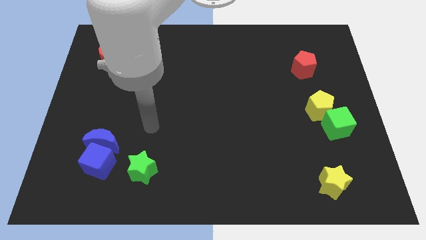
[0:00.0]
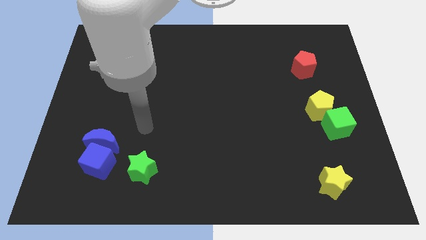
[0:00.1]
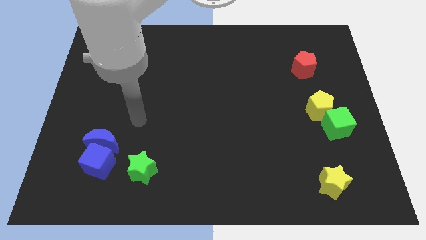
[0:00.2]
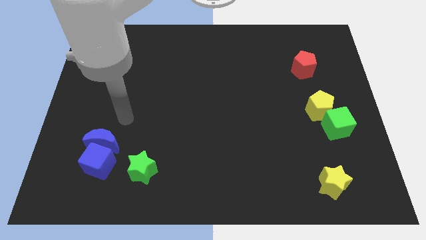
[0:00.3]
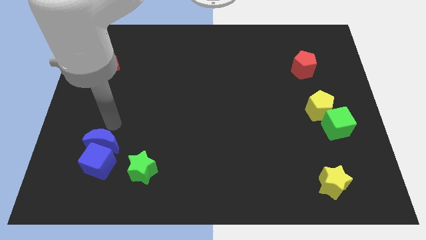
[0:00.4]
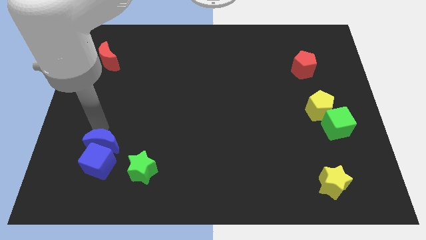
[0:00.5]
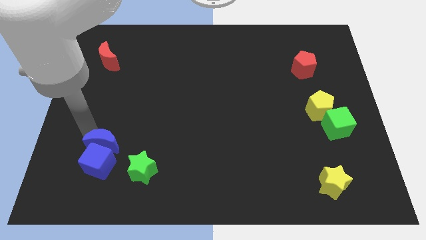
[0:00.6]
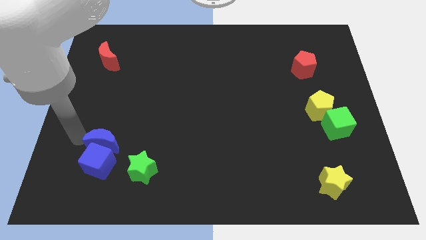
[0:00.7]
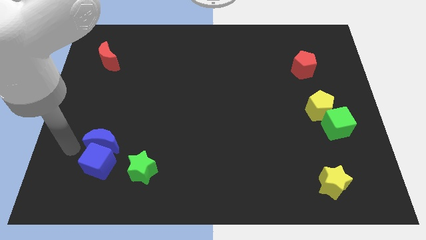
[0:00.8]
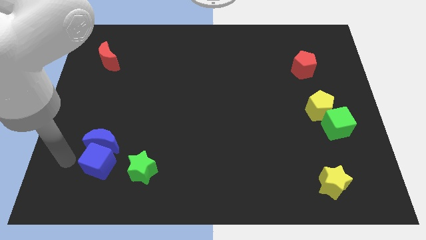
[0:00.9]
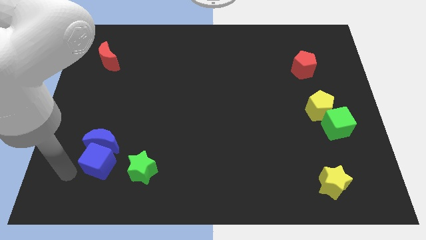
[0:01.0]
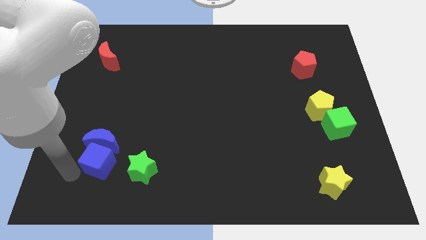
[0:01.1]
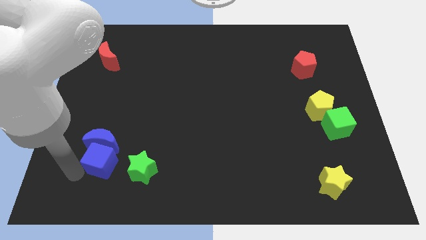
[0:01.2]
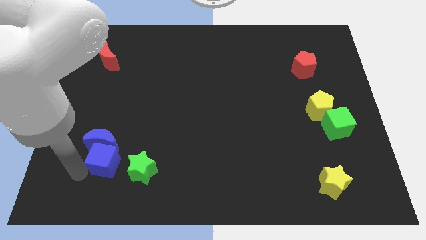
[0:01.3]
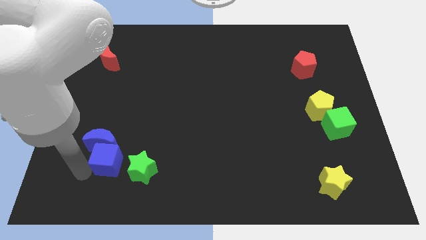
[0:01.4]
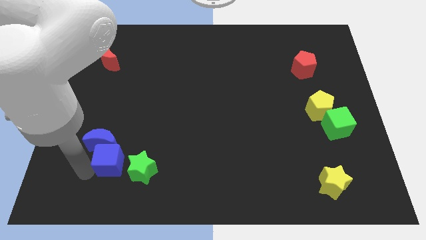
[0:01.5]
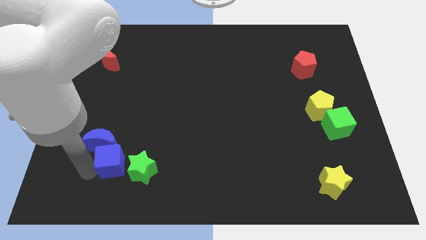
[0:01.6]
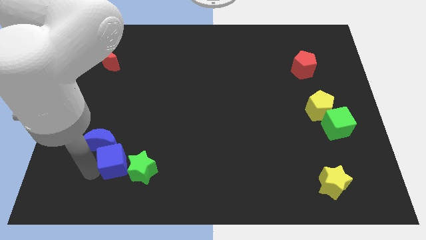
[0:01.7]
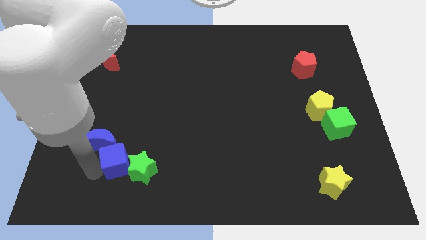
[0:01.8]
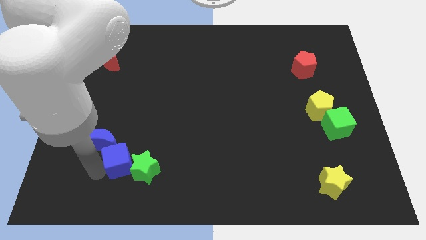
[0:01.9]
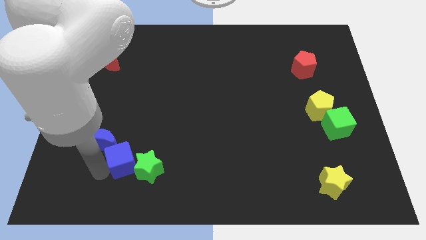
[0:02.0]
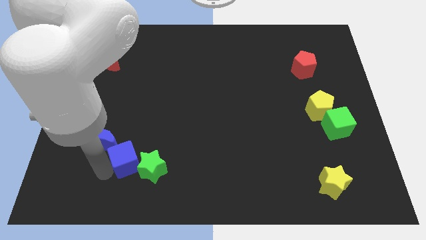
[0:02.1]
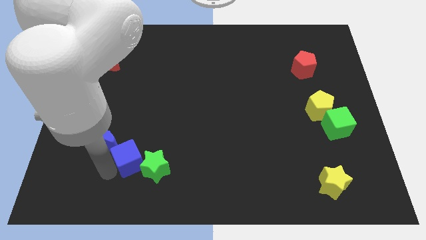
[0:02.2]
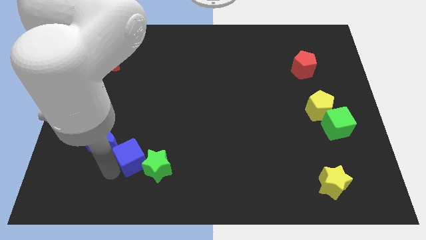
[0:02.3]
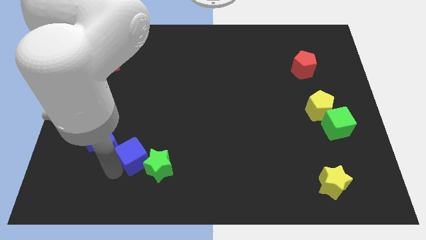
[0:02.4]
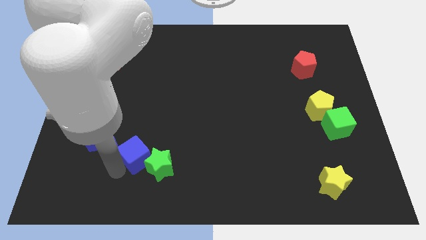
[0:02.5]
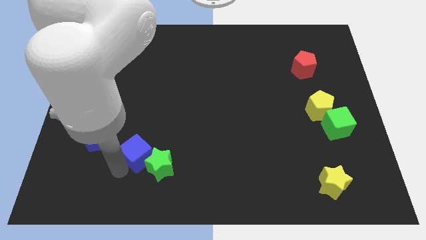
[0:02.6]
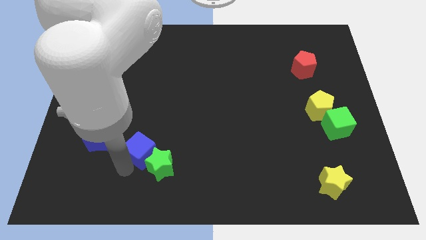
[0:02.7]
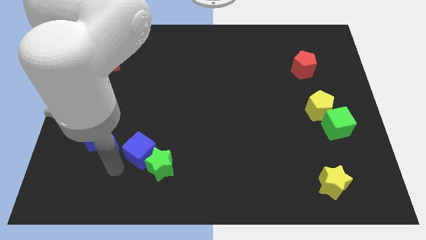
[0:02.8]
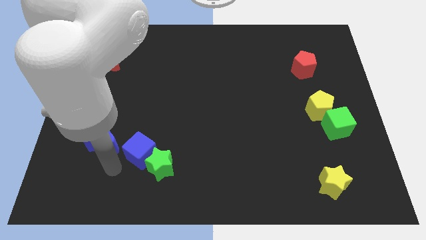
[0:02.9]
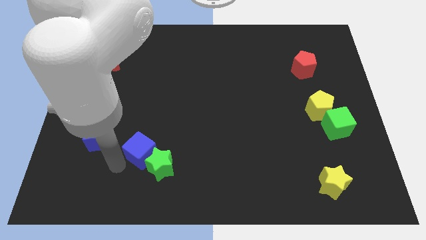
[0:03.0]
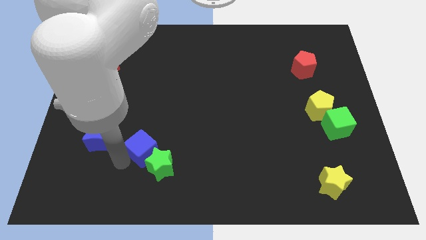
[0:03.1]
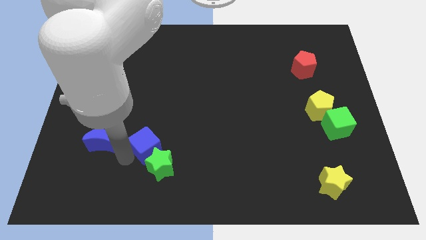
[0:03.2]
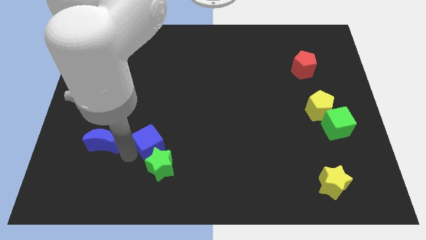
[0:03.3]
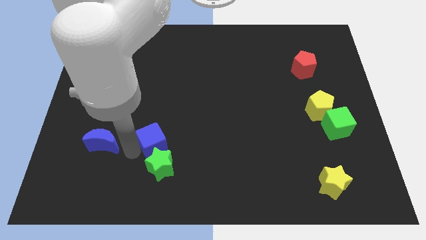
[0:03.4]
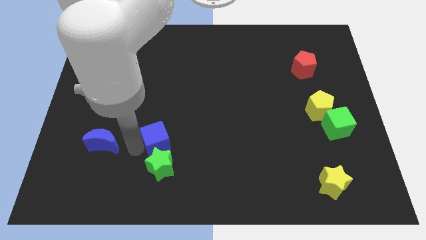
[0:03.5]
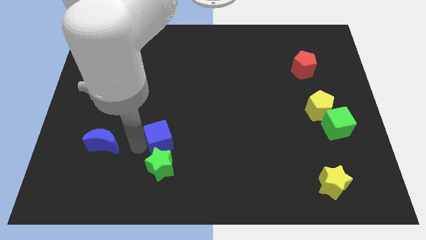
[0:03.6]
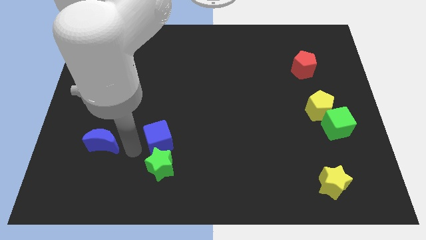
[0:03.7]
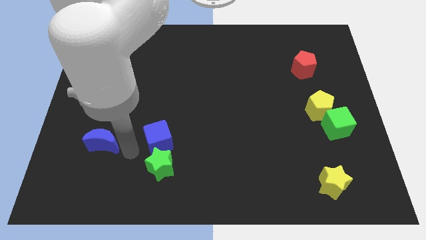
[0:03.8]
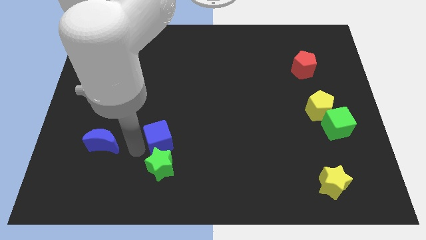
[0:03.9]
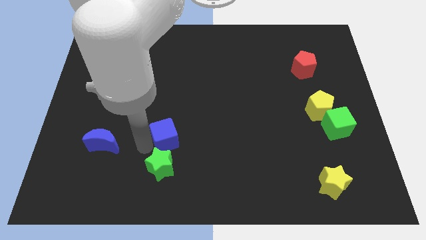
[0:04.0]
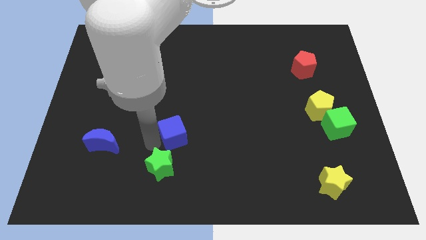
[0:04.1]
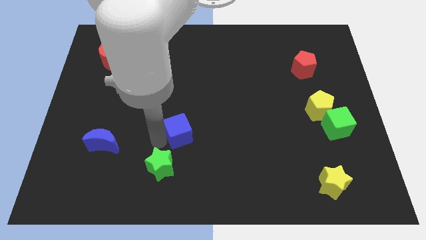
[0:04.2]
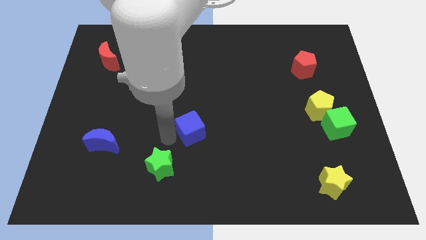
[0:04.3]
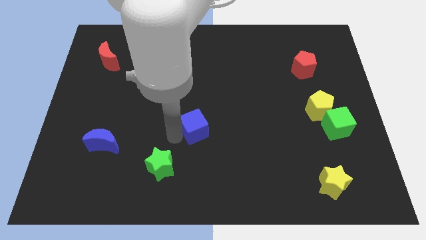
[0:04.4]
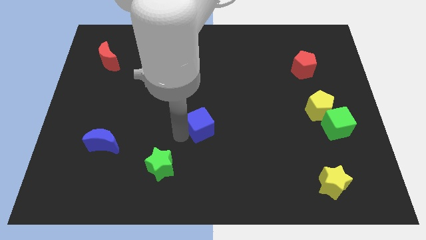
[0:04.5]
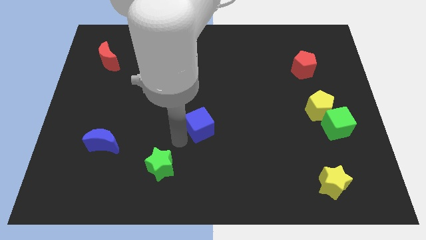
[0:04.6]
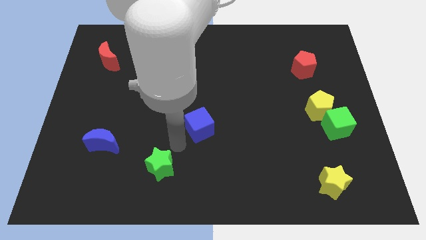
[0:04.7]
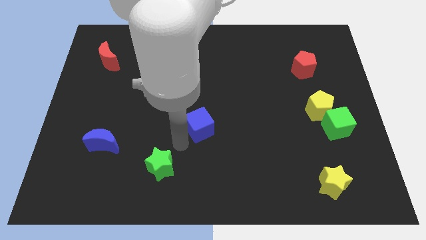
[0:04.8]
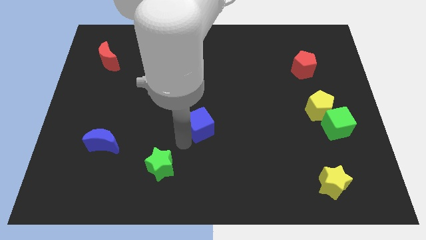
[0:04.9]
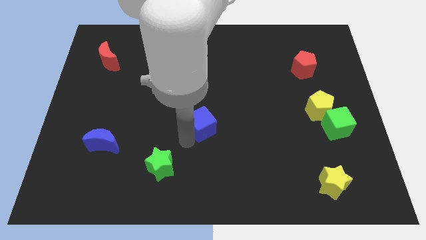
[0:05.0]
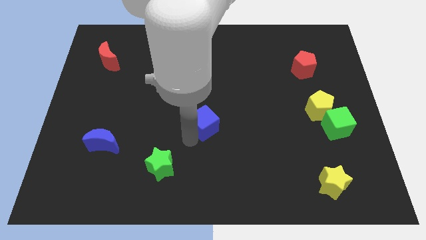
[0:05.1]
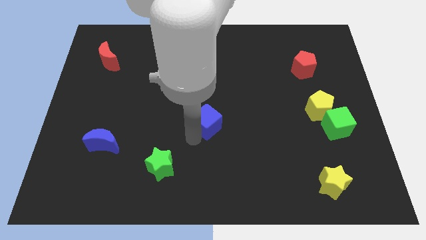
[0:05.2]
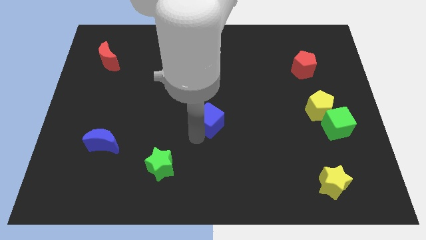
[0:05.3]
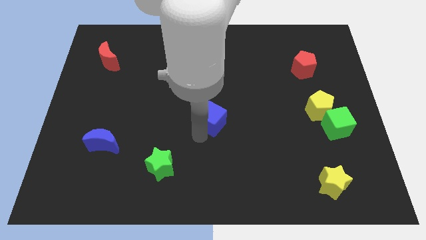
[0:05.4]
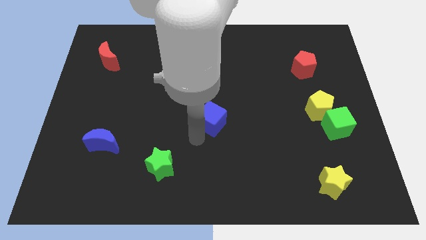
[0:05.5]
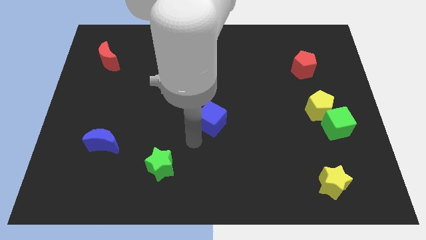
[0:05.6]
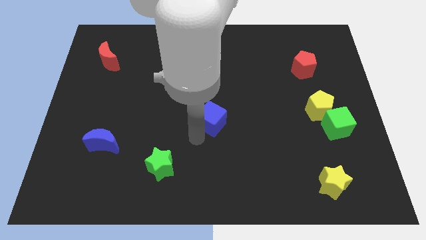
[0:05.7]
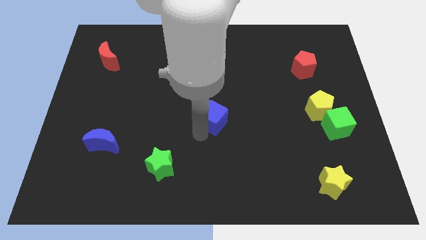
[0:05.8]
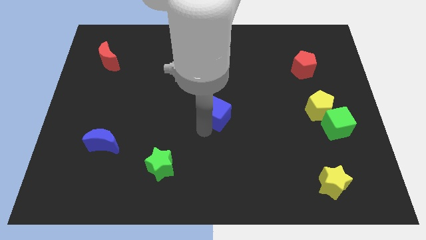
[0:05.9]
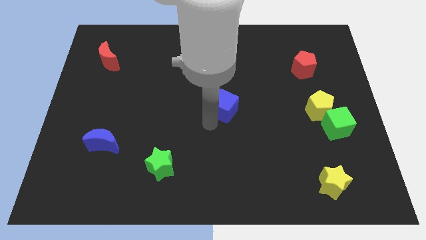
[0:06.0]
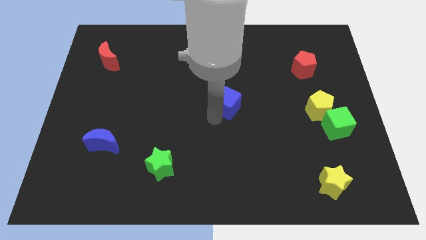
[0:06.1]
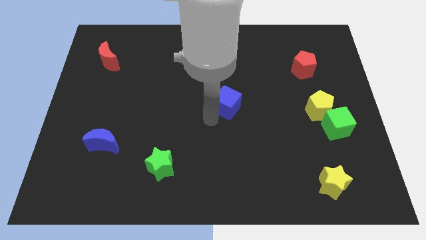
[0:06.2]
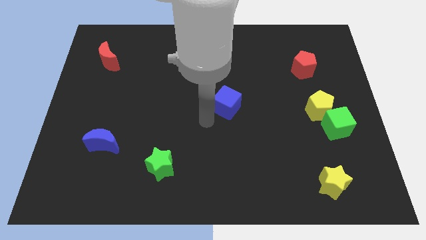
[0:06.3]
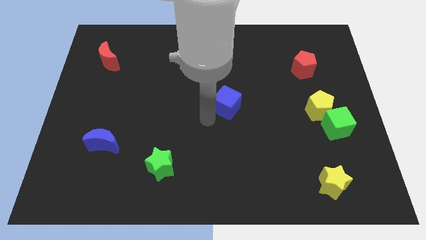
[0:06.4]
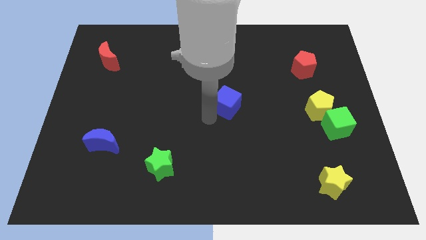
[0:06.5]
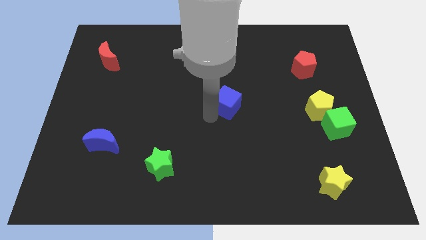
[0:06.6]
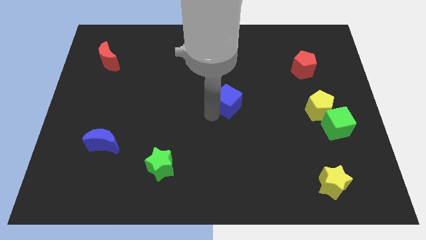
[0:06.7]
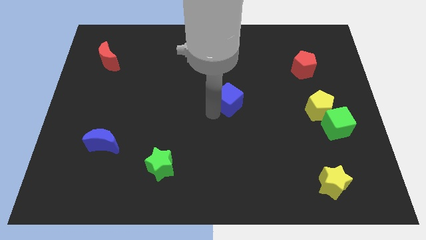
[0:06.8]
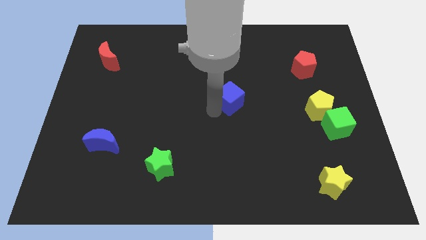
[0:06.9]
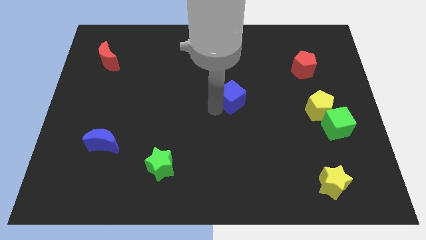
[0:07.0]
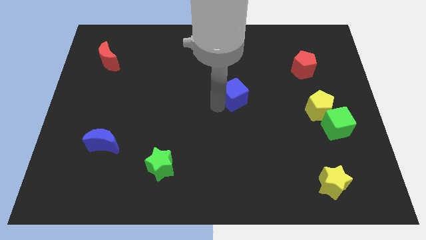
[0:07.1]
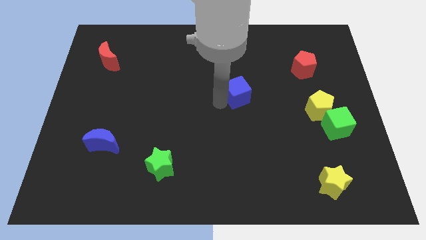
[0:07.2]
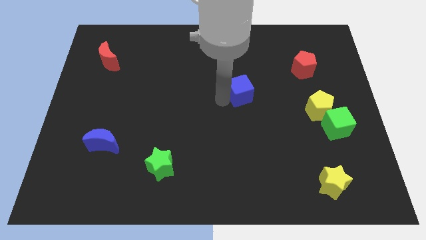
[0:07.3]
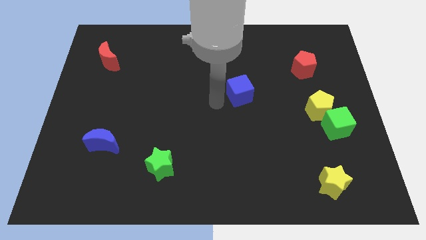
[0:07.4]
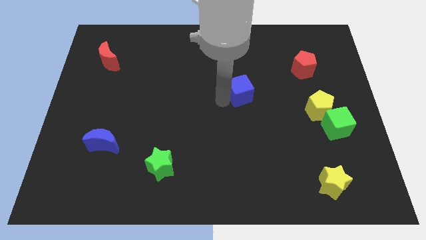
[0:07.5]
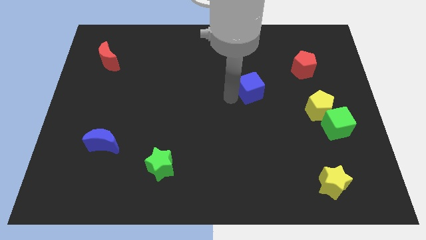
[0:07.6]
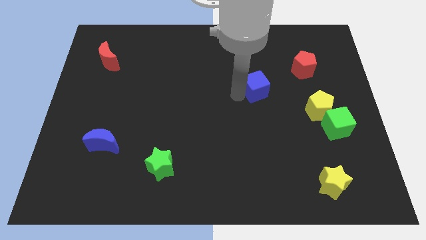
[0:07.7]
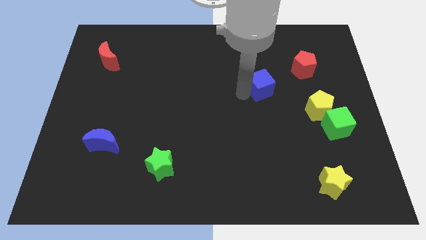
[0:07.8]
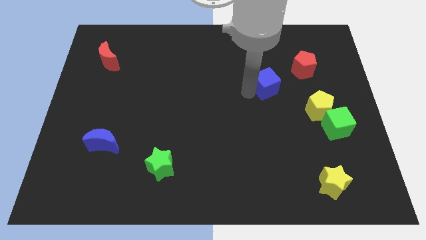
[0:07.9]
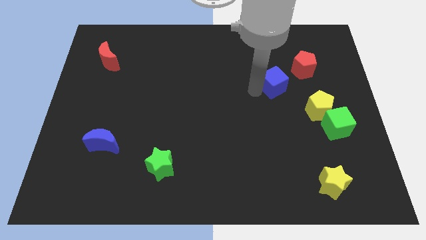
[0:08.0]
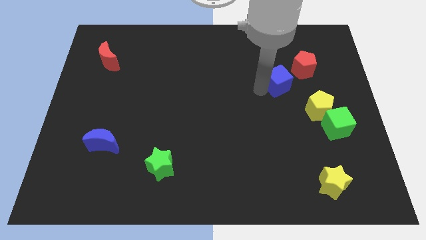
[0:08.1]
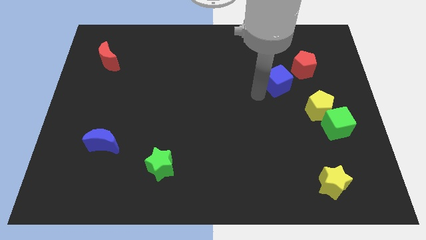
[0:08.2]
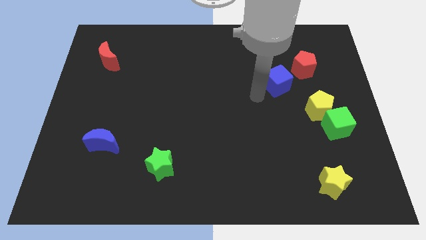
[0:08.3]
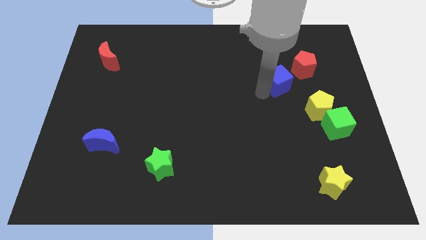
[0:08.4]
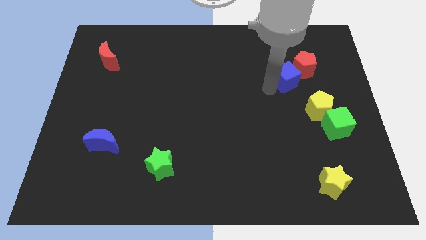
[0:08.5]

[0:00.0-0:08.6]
slide the blue cube to the red pentagon
